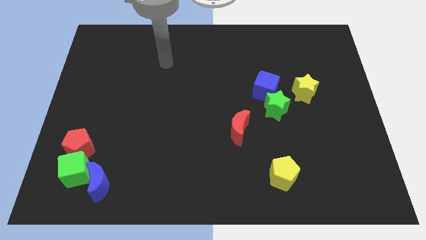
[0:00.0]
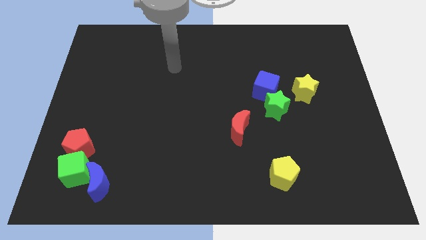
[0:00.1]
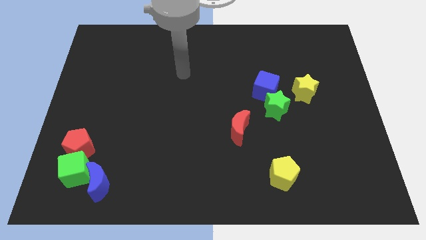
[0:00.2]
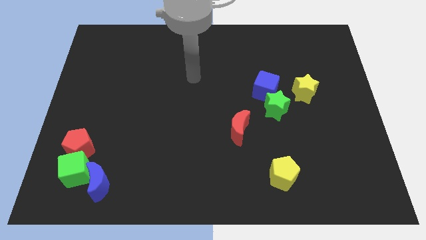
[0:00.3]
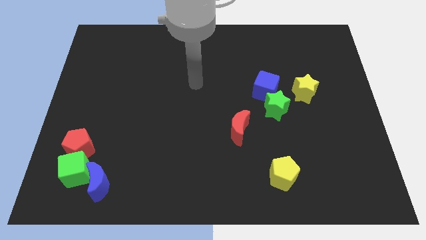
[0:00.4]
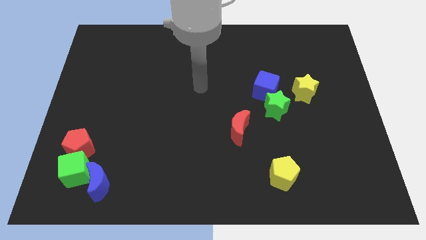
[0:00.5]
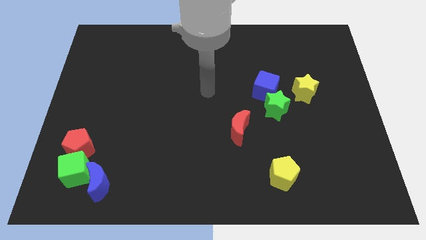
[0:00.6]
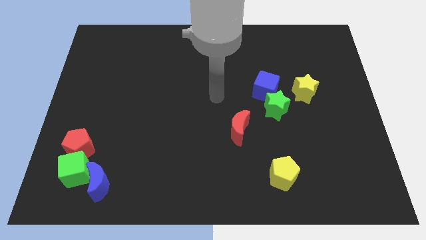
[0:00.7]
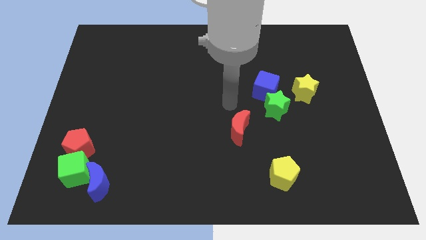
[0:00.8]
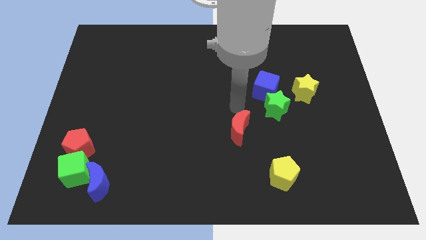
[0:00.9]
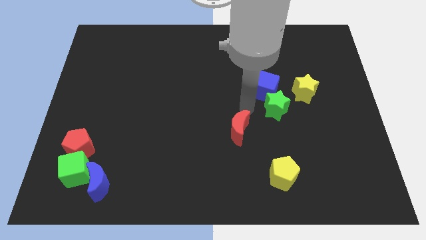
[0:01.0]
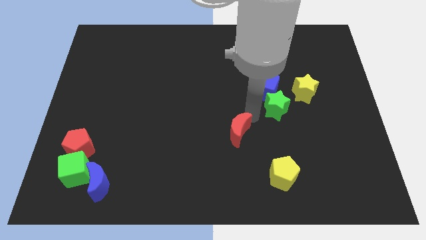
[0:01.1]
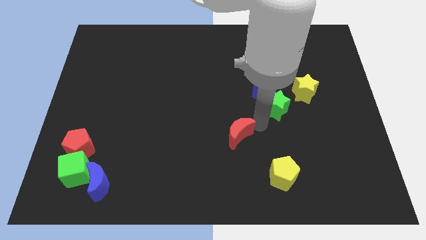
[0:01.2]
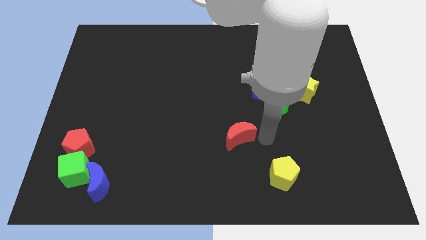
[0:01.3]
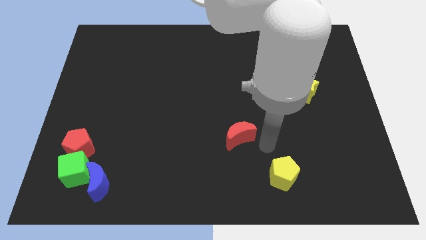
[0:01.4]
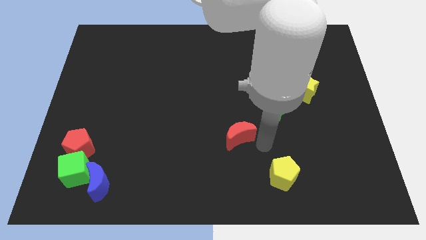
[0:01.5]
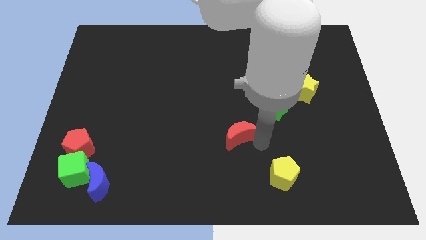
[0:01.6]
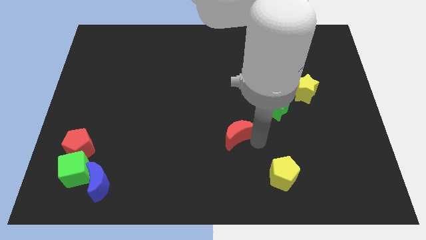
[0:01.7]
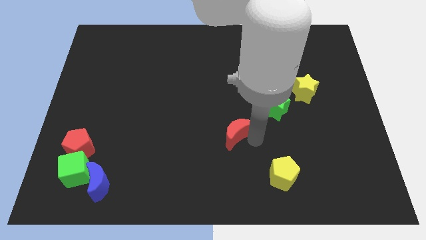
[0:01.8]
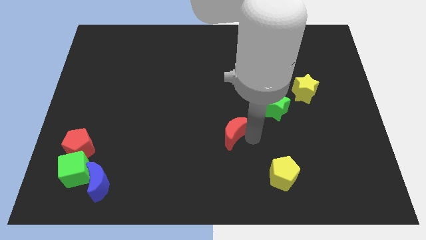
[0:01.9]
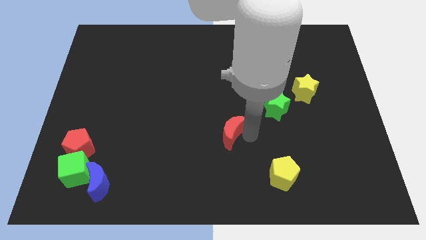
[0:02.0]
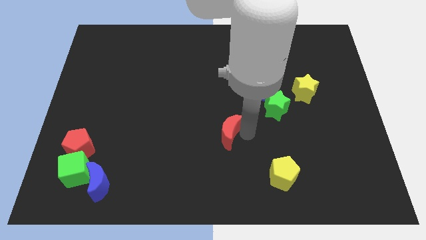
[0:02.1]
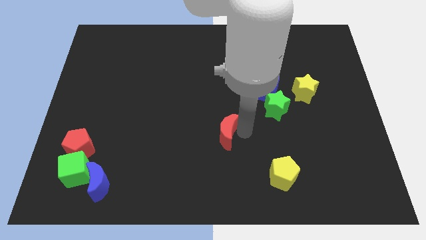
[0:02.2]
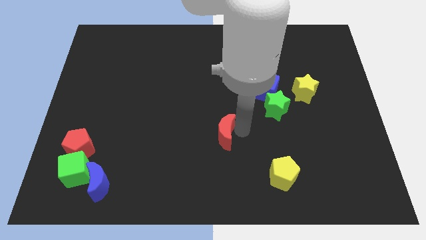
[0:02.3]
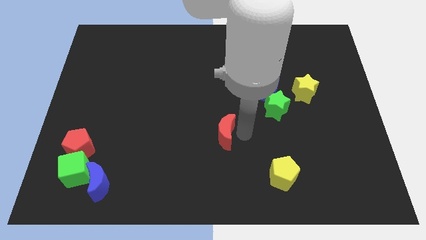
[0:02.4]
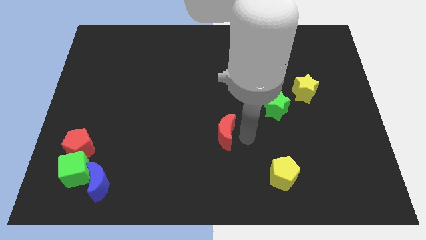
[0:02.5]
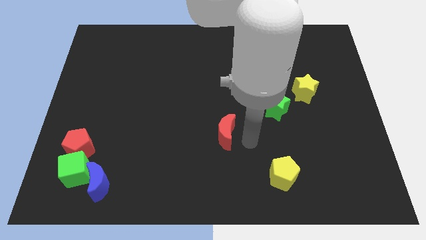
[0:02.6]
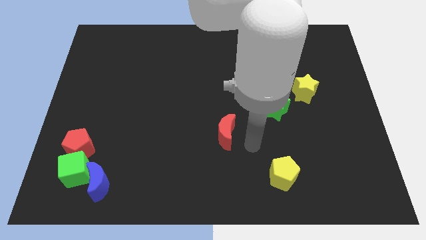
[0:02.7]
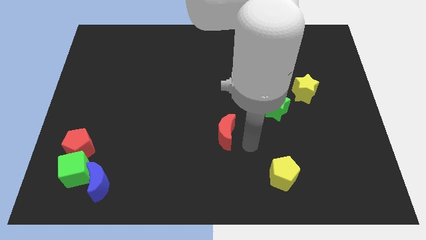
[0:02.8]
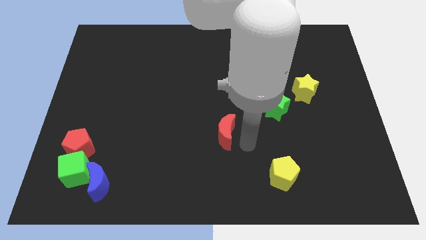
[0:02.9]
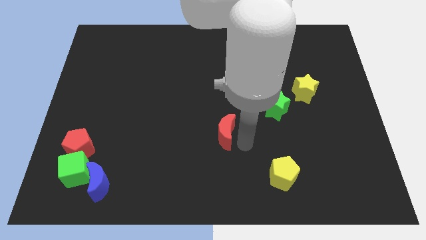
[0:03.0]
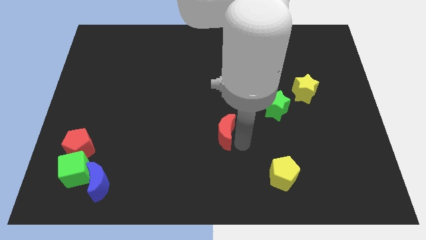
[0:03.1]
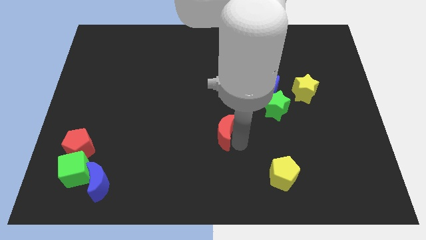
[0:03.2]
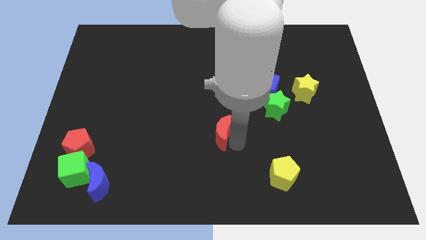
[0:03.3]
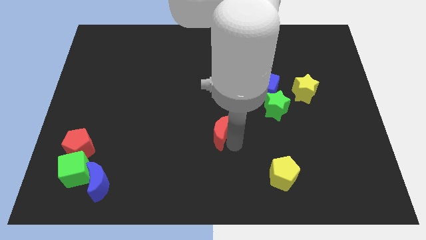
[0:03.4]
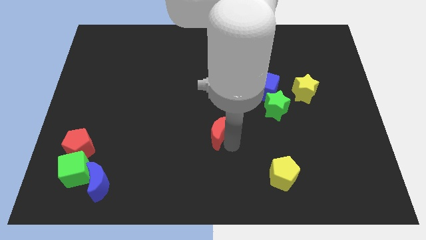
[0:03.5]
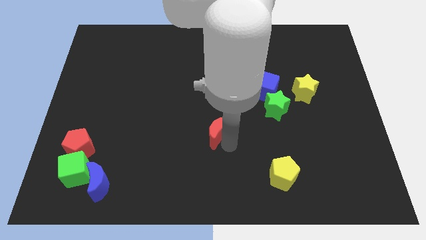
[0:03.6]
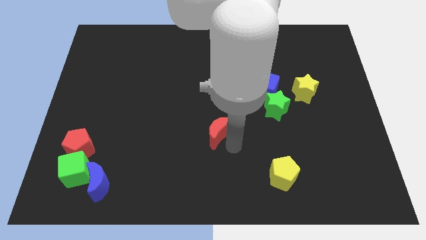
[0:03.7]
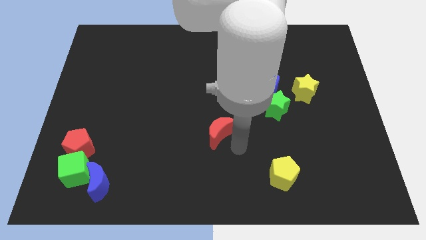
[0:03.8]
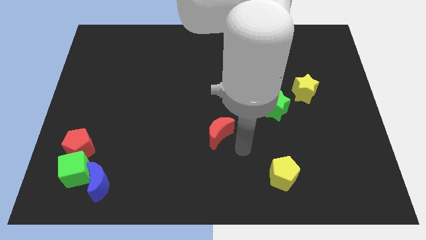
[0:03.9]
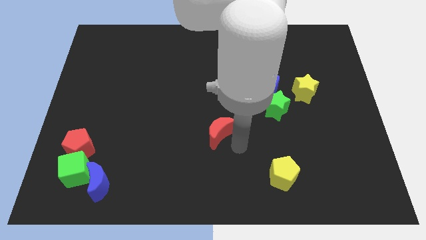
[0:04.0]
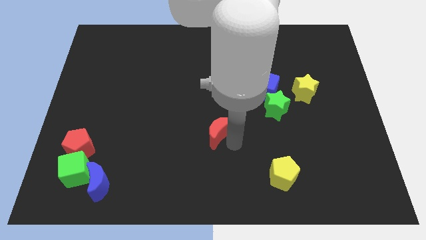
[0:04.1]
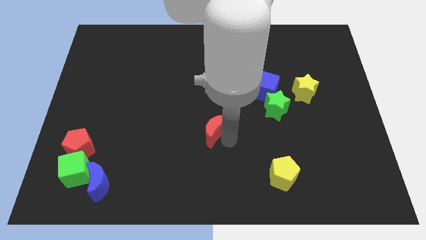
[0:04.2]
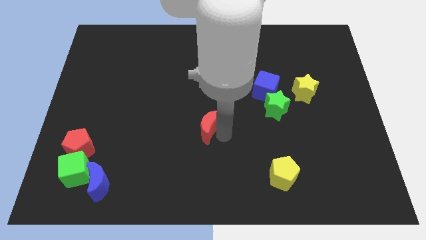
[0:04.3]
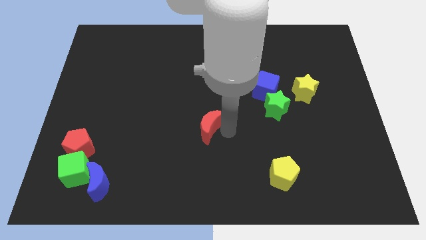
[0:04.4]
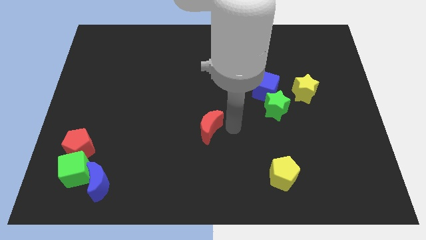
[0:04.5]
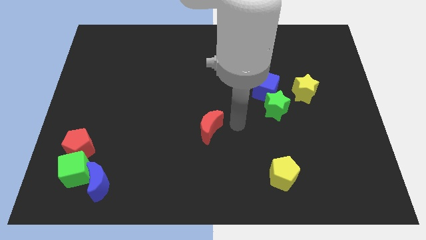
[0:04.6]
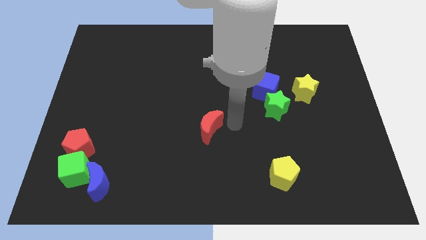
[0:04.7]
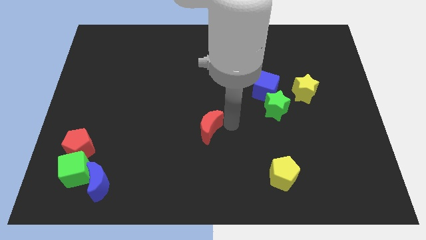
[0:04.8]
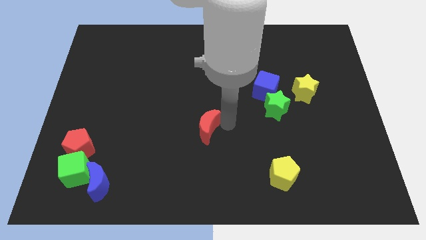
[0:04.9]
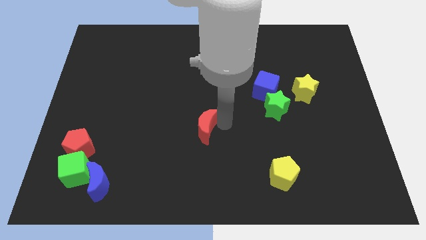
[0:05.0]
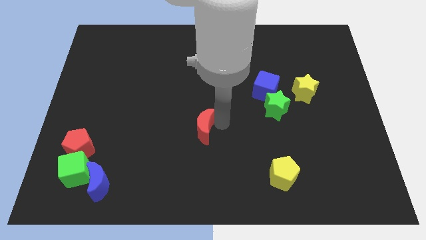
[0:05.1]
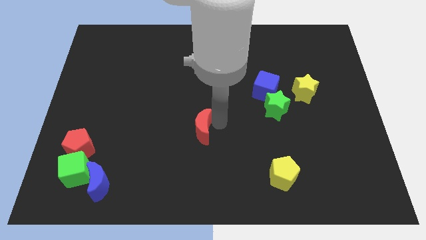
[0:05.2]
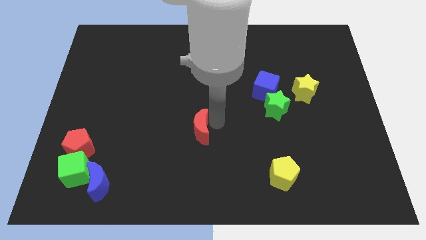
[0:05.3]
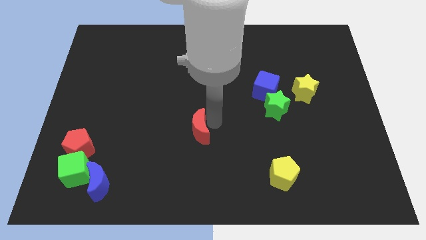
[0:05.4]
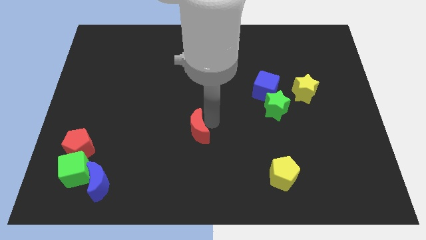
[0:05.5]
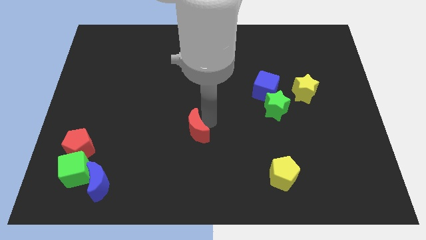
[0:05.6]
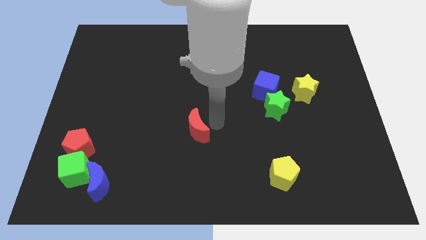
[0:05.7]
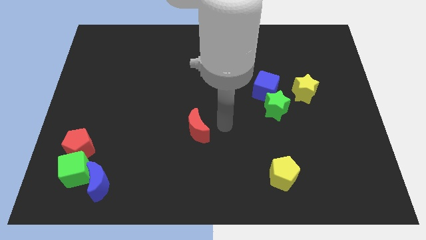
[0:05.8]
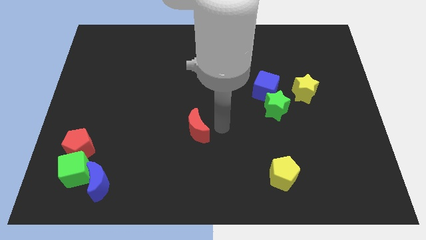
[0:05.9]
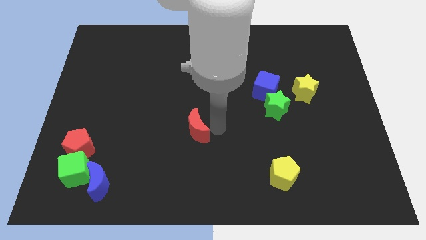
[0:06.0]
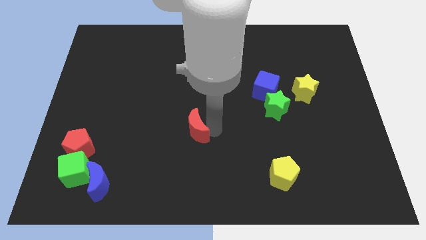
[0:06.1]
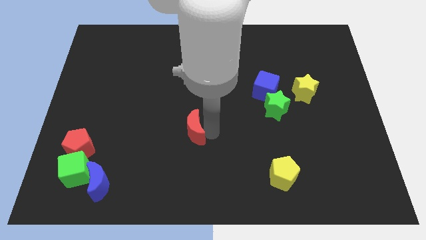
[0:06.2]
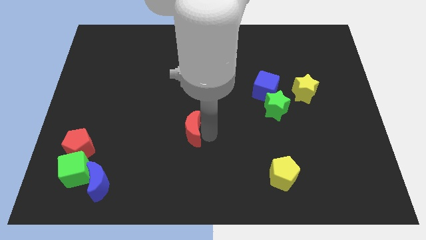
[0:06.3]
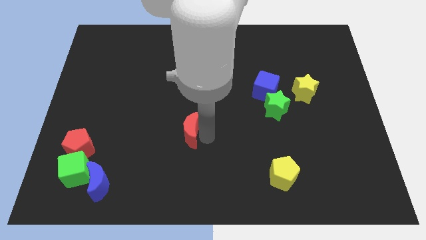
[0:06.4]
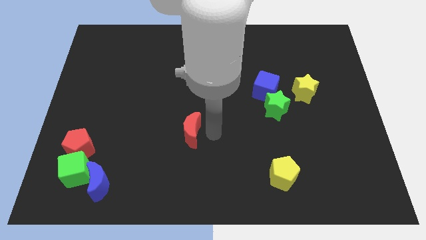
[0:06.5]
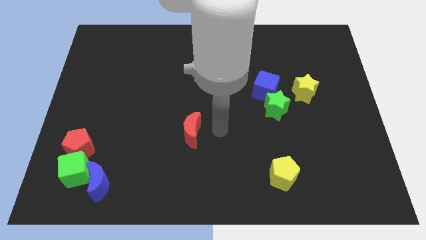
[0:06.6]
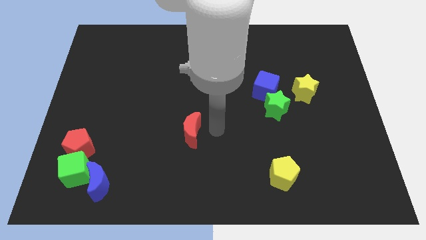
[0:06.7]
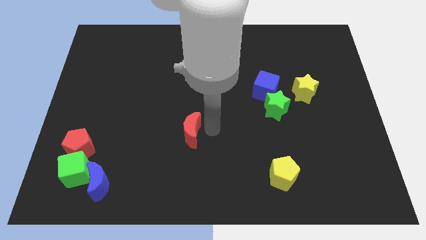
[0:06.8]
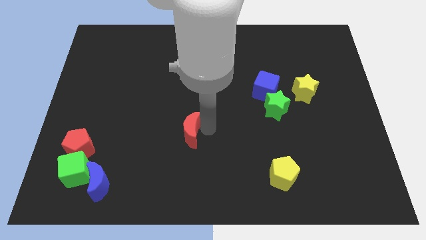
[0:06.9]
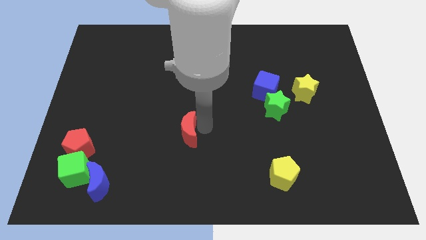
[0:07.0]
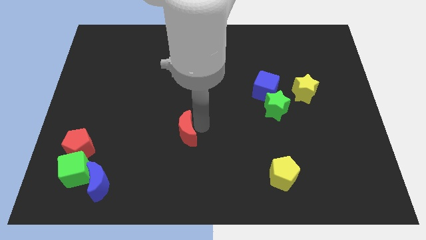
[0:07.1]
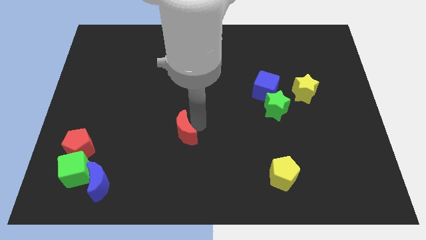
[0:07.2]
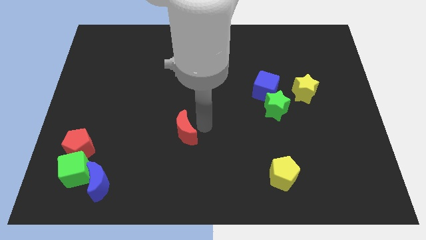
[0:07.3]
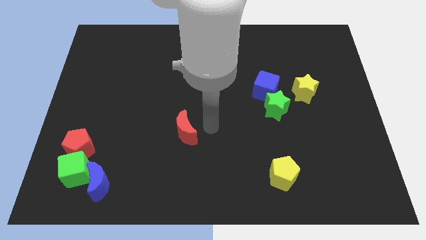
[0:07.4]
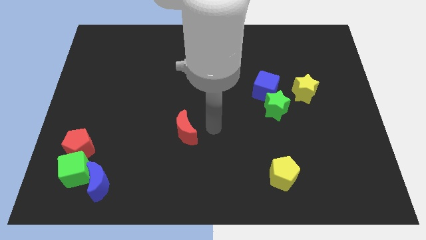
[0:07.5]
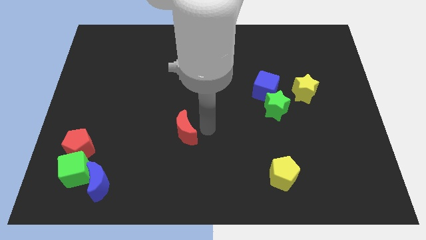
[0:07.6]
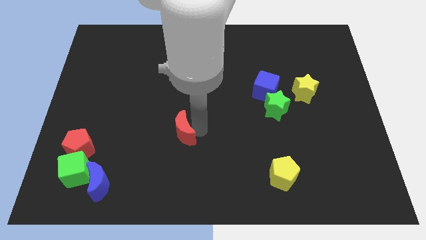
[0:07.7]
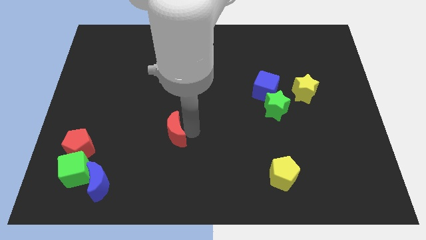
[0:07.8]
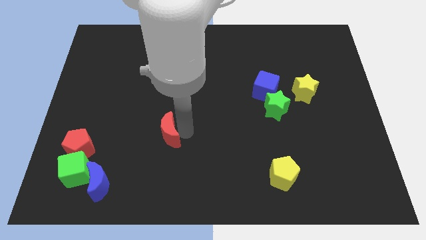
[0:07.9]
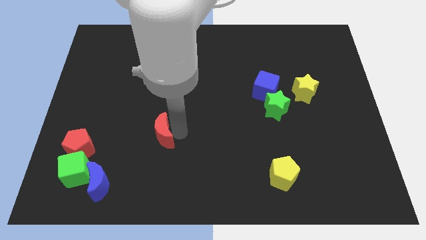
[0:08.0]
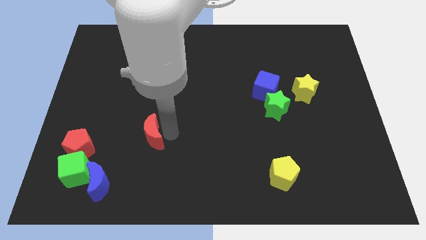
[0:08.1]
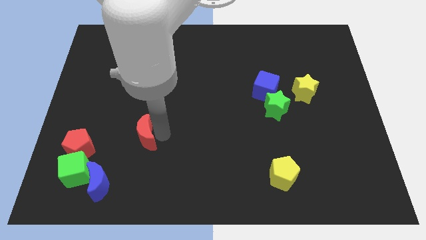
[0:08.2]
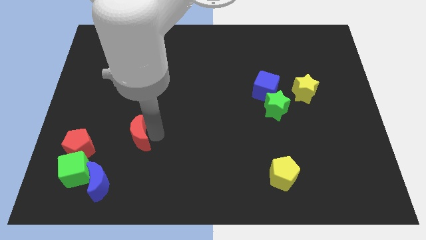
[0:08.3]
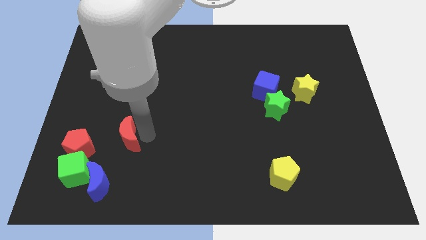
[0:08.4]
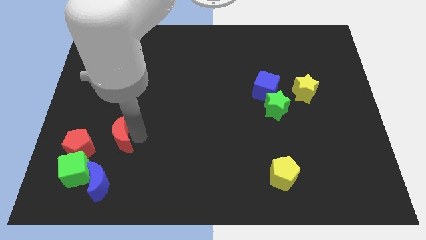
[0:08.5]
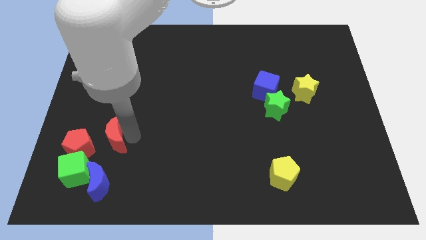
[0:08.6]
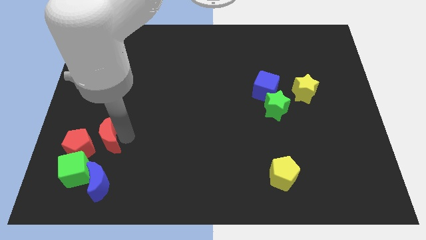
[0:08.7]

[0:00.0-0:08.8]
push the red moon close to the red pentagon
